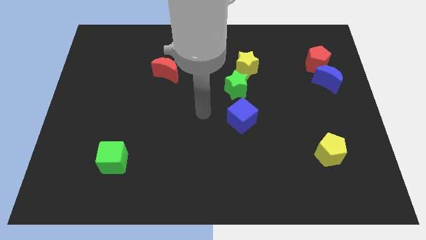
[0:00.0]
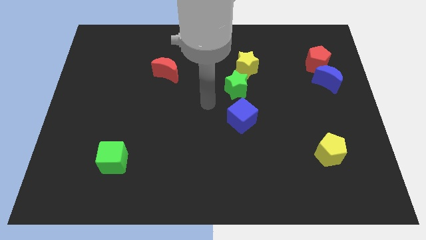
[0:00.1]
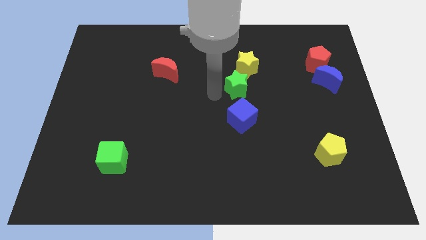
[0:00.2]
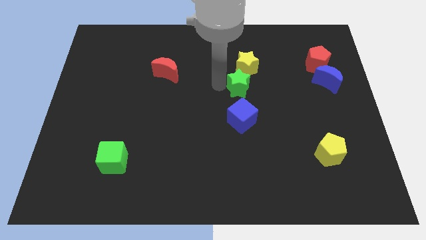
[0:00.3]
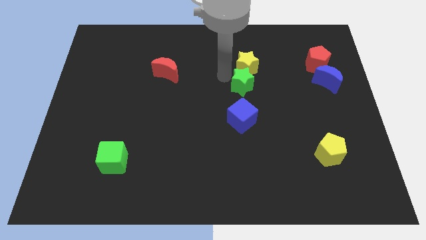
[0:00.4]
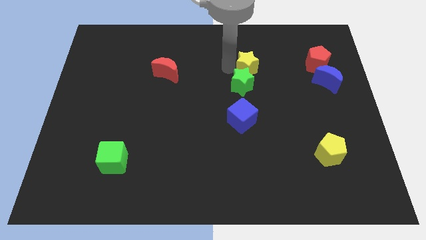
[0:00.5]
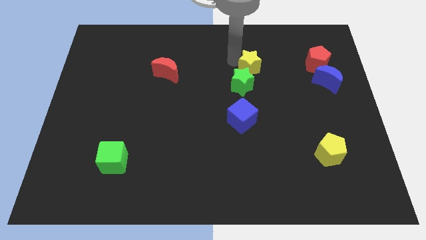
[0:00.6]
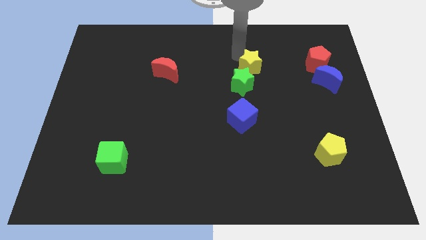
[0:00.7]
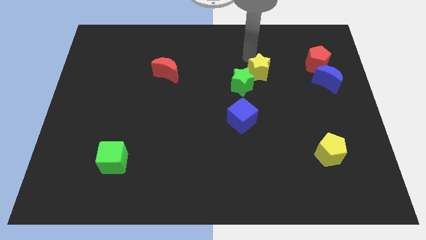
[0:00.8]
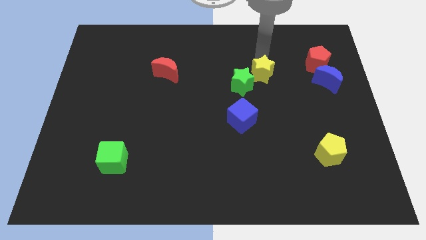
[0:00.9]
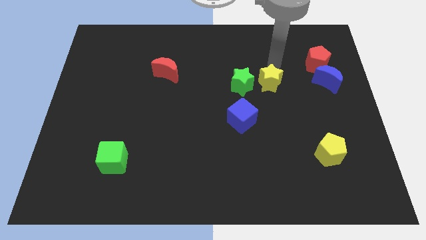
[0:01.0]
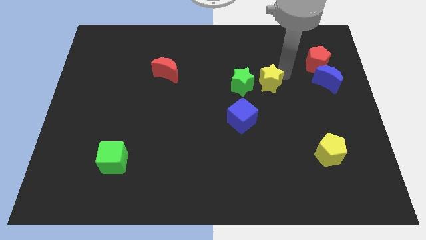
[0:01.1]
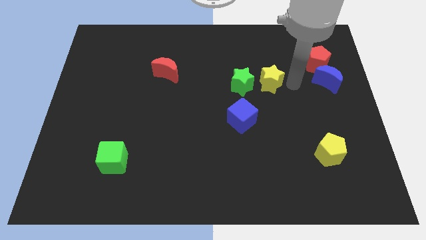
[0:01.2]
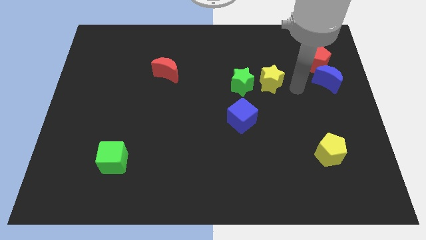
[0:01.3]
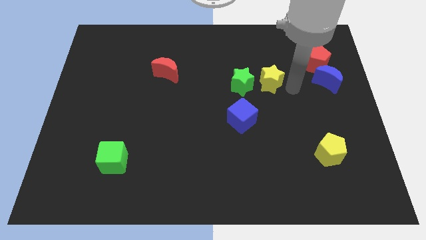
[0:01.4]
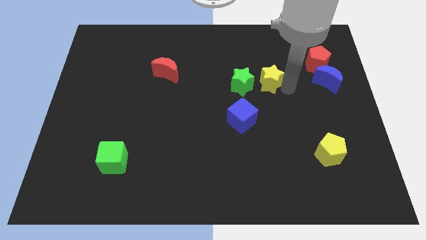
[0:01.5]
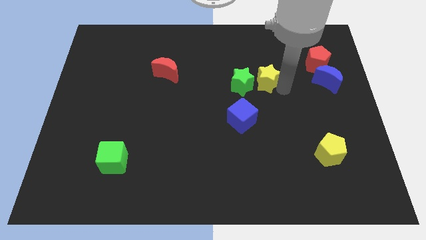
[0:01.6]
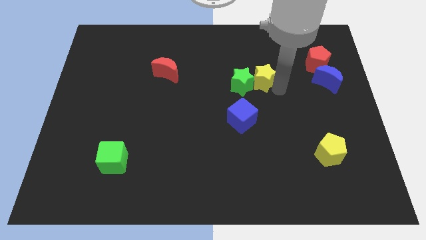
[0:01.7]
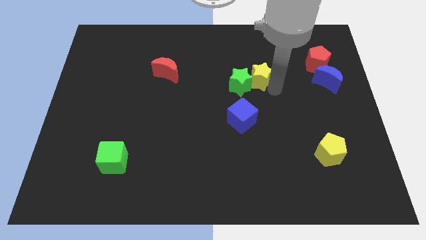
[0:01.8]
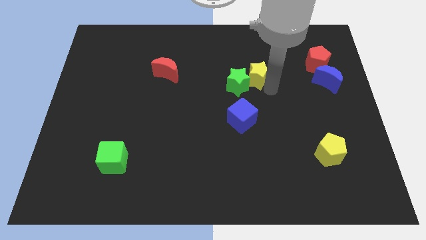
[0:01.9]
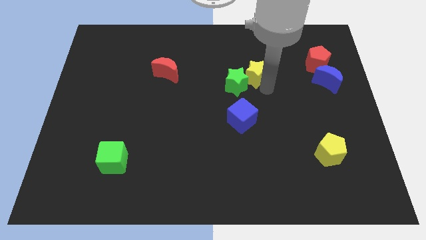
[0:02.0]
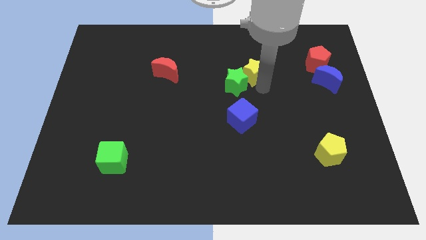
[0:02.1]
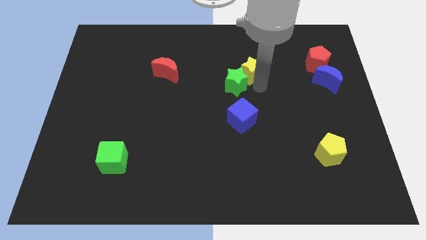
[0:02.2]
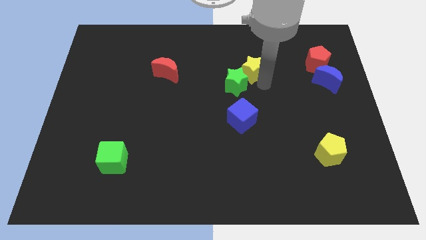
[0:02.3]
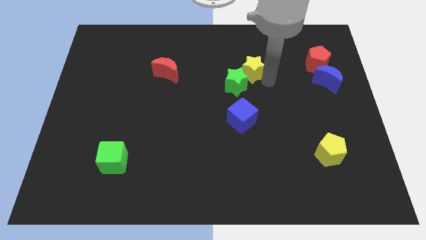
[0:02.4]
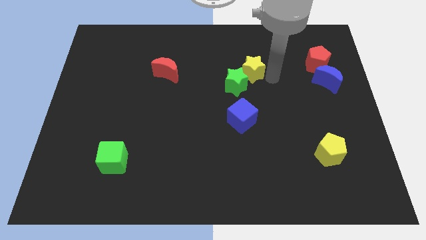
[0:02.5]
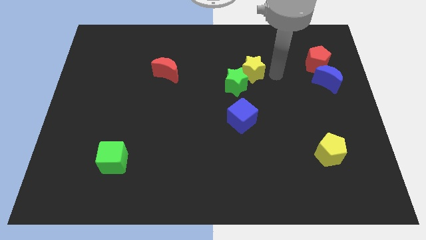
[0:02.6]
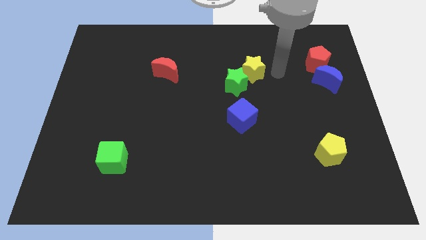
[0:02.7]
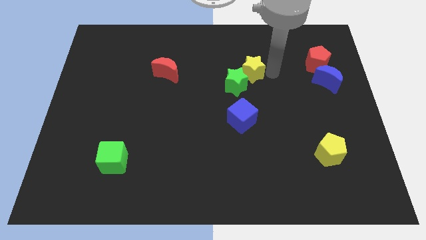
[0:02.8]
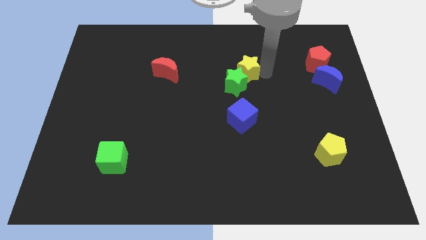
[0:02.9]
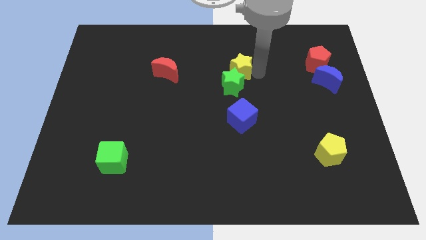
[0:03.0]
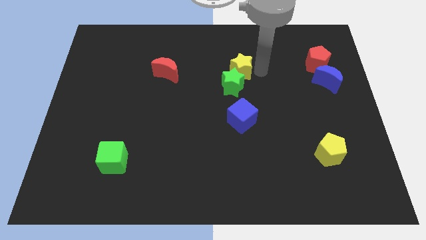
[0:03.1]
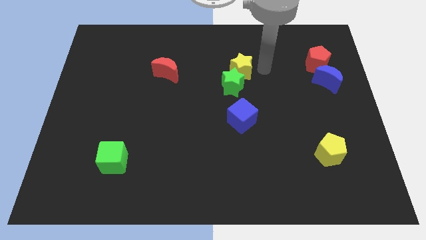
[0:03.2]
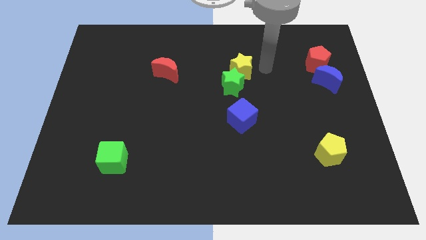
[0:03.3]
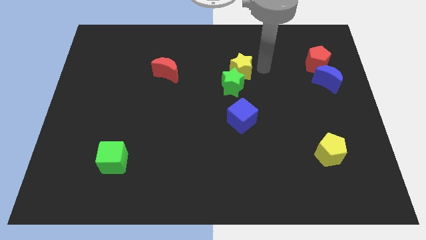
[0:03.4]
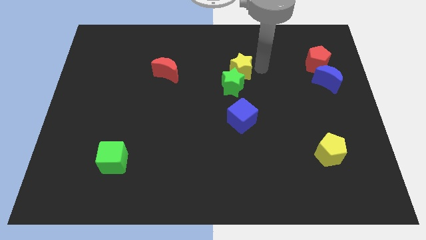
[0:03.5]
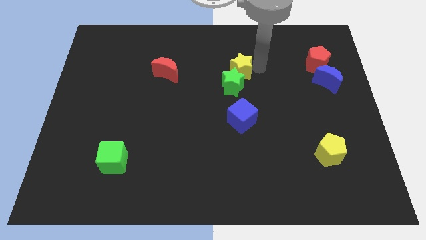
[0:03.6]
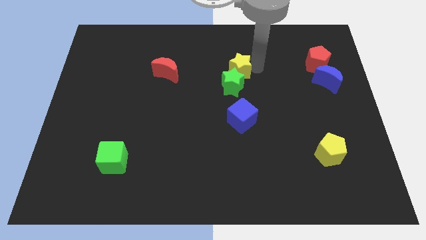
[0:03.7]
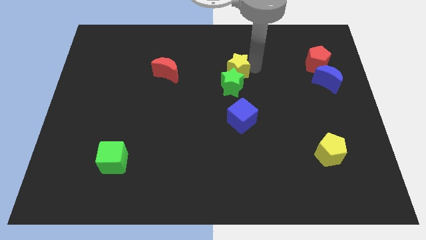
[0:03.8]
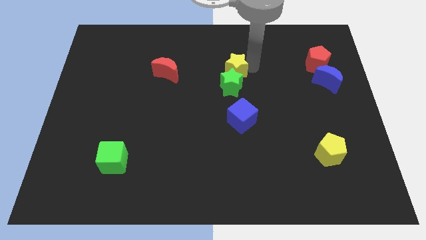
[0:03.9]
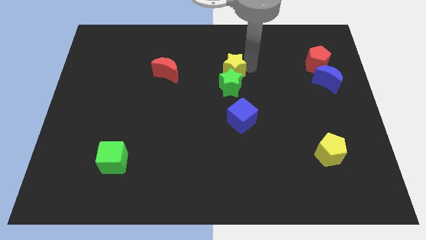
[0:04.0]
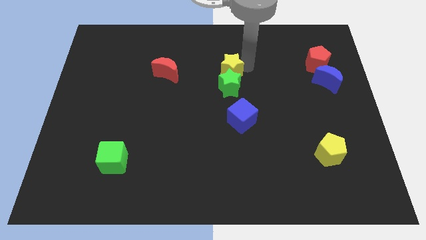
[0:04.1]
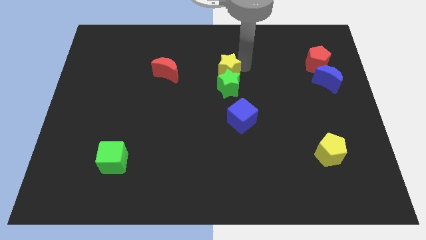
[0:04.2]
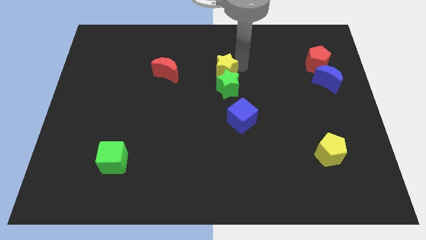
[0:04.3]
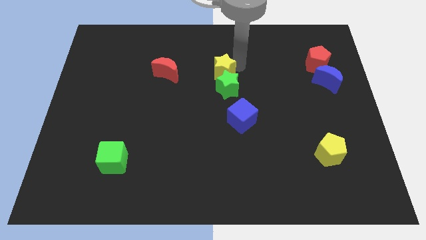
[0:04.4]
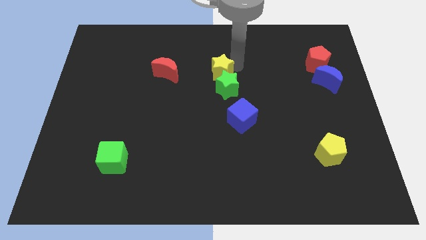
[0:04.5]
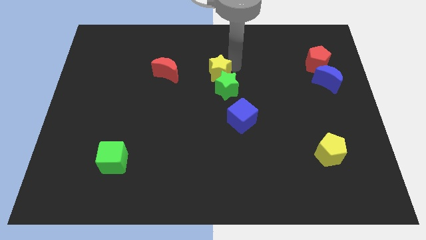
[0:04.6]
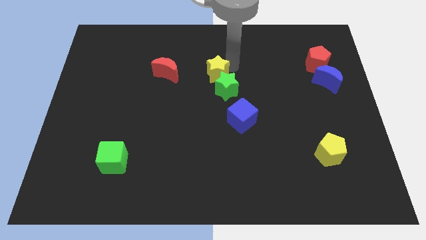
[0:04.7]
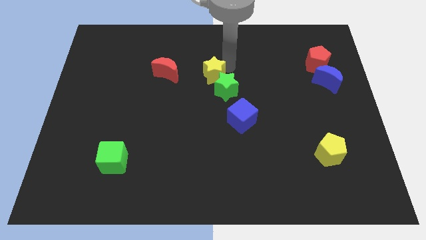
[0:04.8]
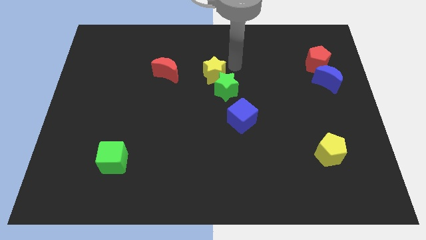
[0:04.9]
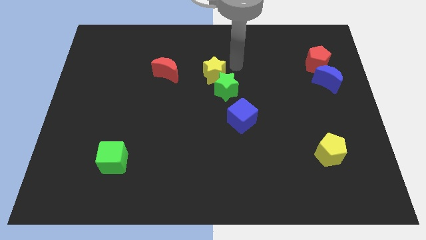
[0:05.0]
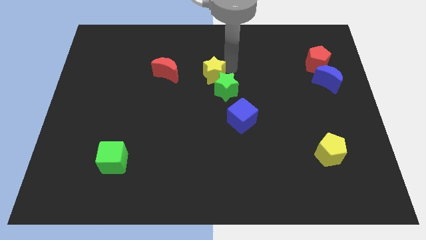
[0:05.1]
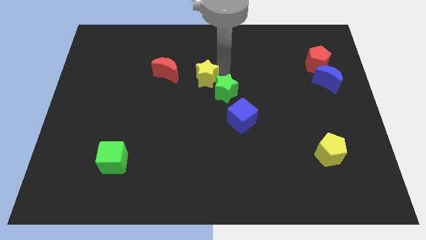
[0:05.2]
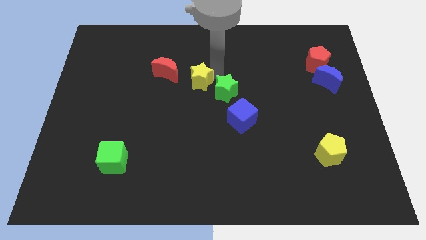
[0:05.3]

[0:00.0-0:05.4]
push the yellow star to the bottom right side of the red moon

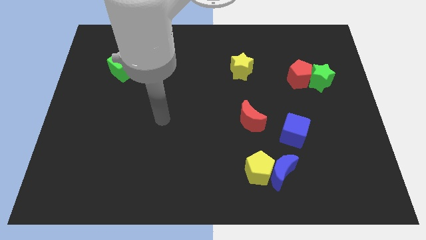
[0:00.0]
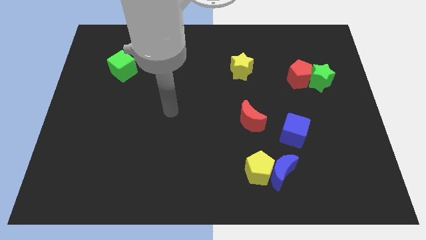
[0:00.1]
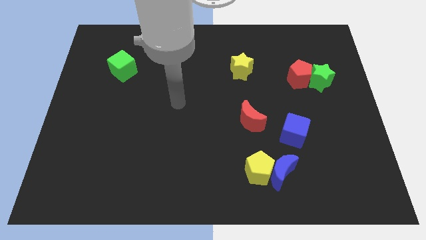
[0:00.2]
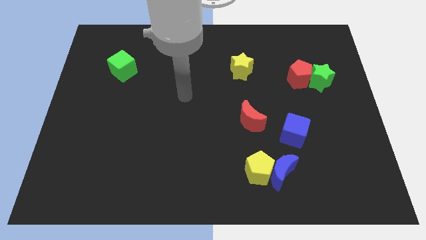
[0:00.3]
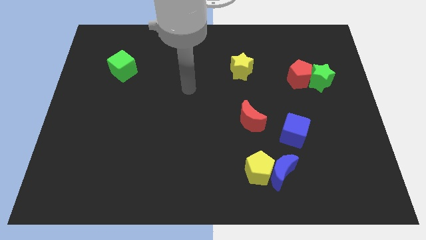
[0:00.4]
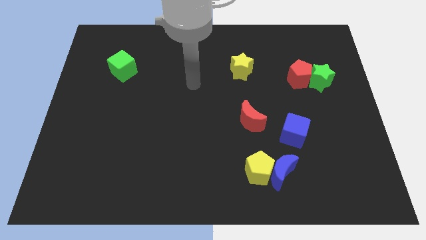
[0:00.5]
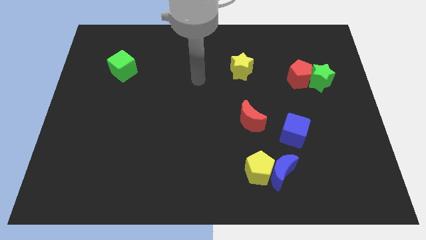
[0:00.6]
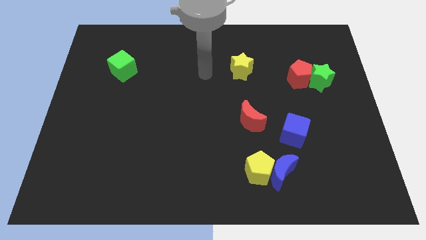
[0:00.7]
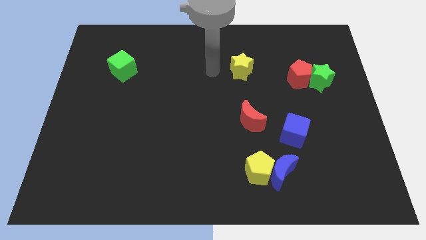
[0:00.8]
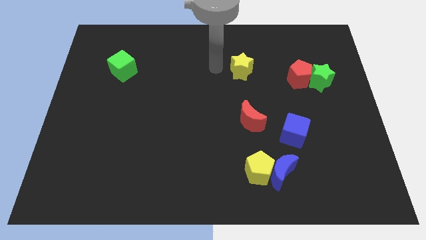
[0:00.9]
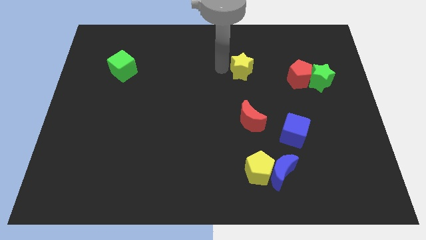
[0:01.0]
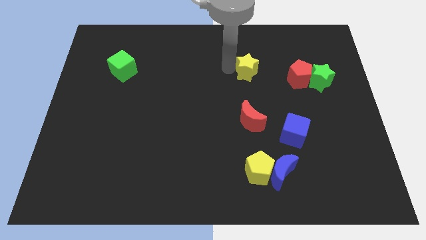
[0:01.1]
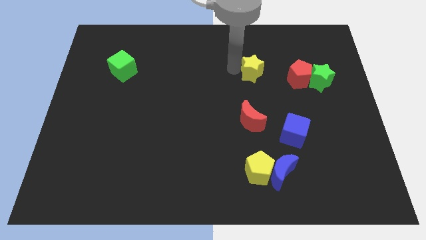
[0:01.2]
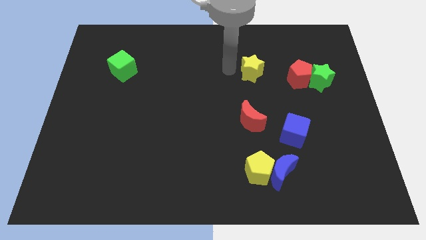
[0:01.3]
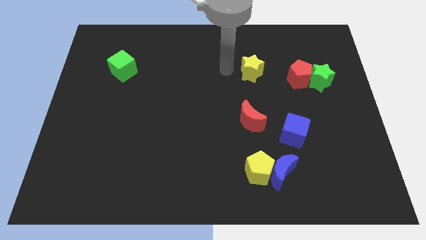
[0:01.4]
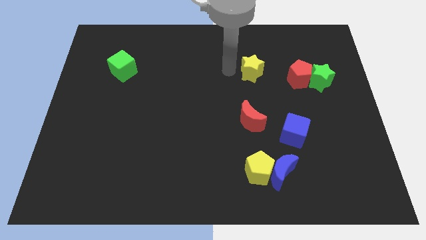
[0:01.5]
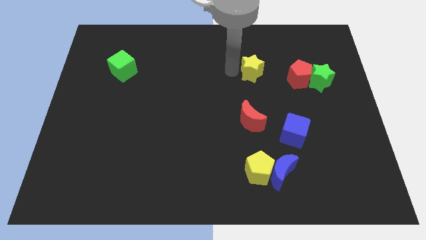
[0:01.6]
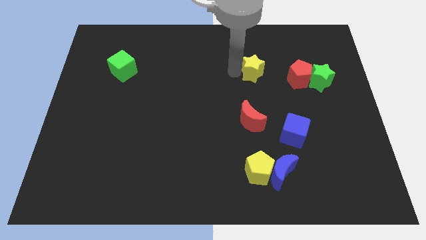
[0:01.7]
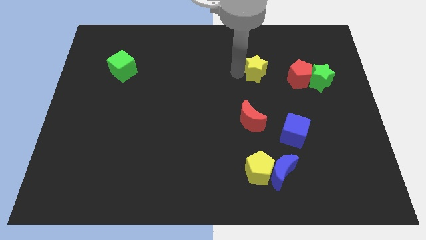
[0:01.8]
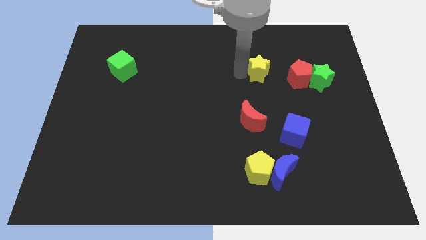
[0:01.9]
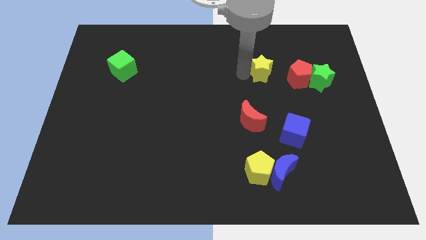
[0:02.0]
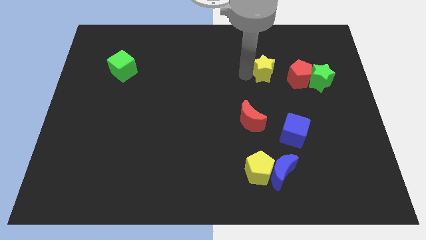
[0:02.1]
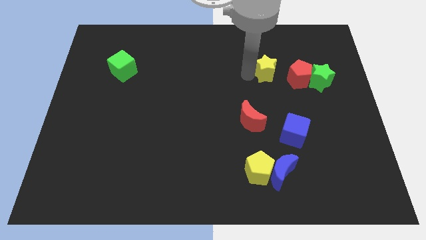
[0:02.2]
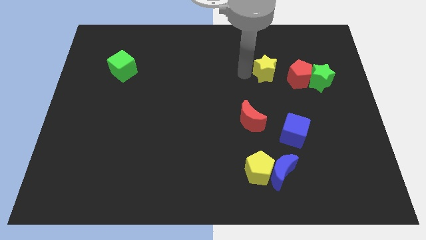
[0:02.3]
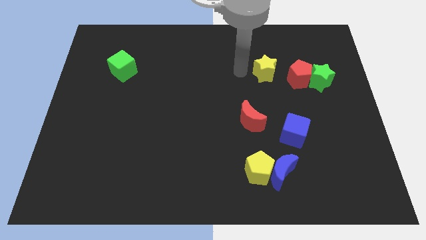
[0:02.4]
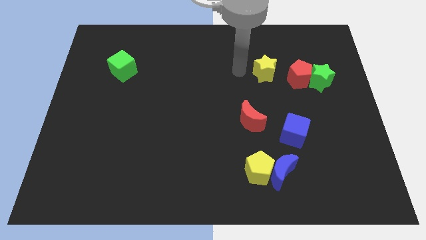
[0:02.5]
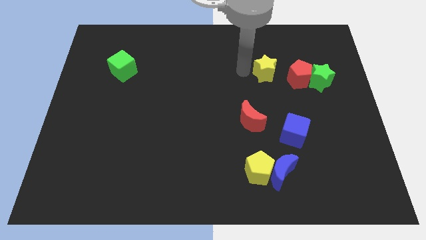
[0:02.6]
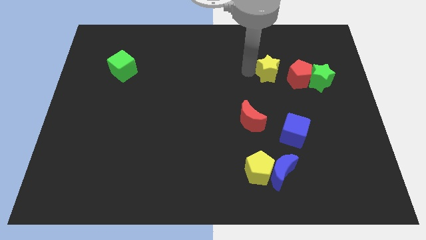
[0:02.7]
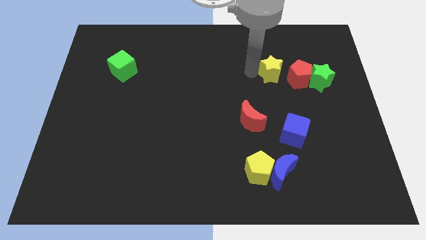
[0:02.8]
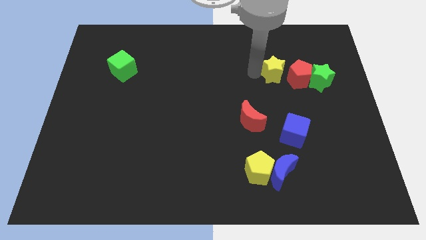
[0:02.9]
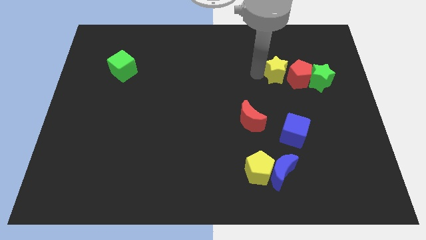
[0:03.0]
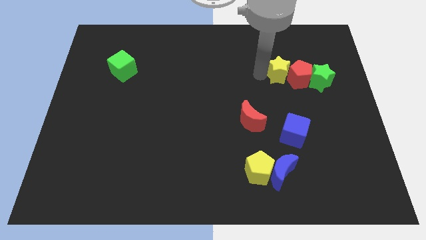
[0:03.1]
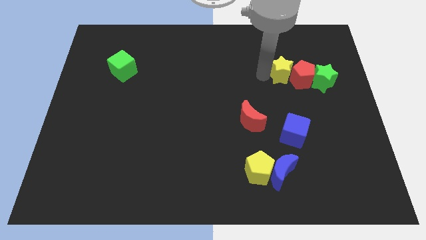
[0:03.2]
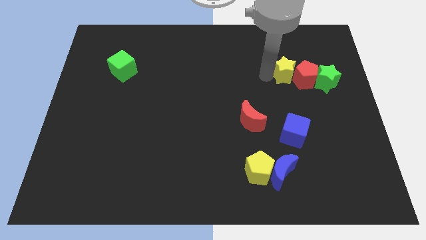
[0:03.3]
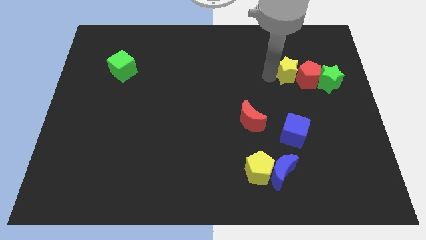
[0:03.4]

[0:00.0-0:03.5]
put the yellow star to the top left of the green star
